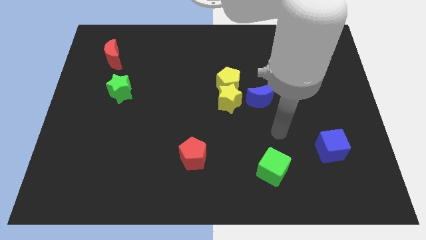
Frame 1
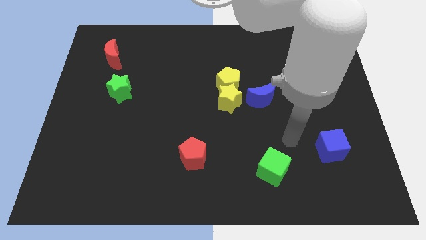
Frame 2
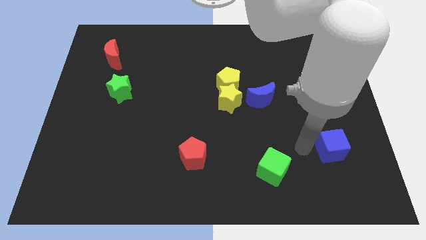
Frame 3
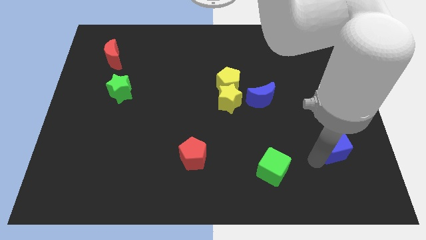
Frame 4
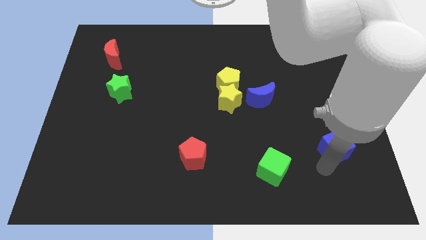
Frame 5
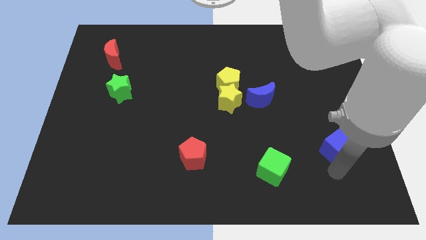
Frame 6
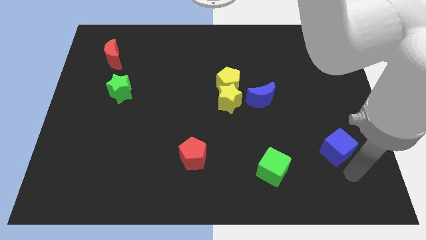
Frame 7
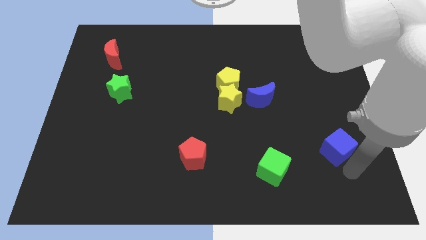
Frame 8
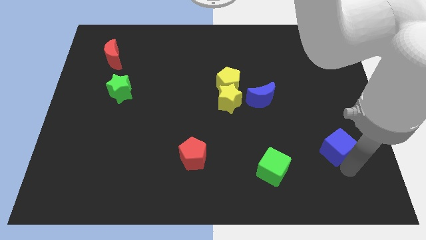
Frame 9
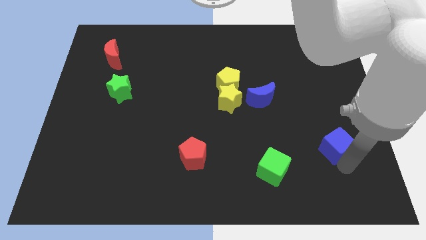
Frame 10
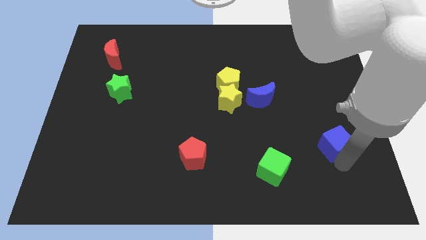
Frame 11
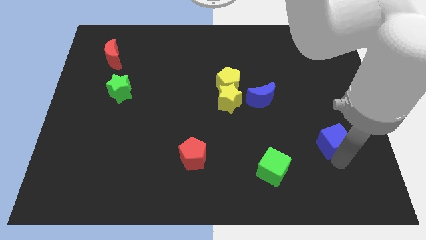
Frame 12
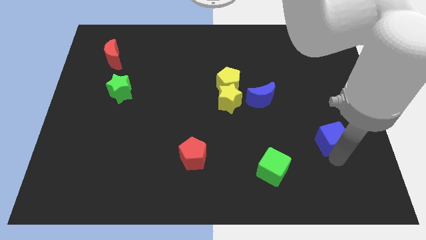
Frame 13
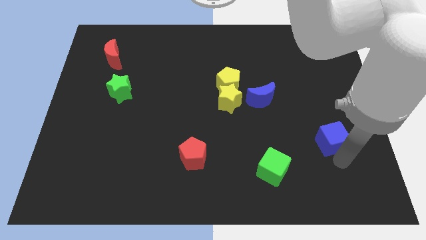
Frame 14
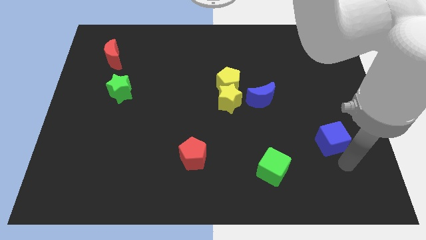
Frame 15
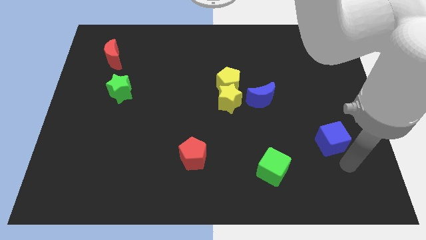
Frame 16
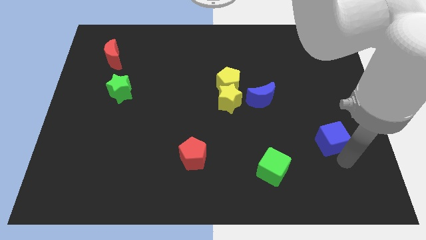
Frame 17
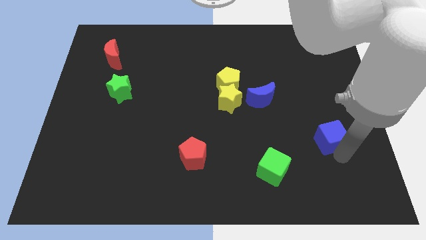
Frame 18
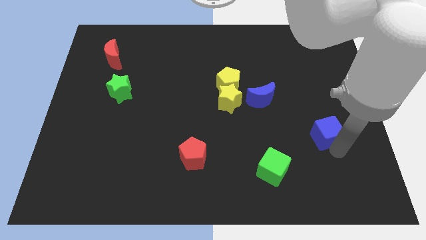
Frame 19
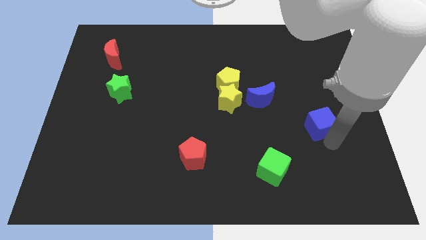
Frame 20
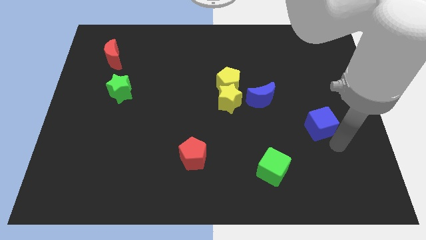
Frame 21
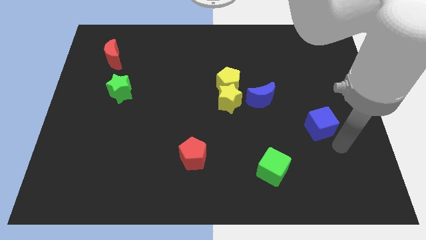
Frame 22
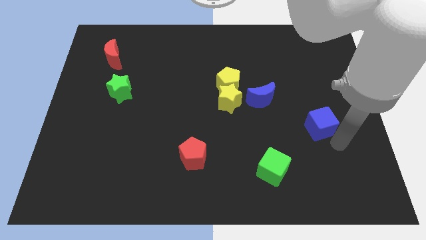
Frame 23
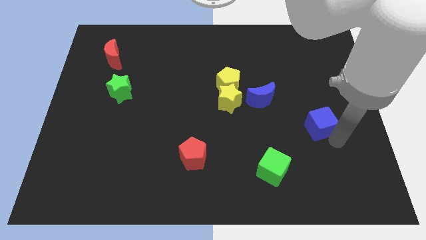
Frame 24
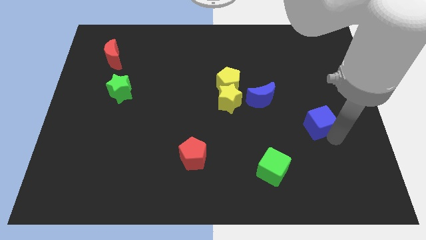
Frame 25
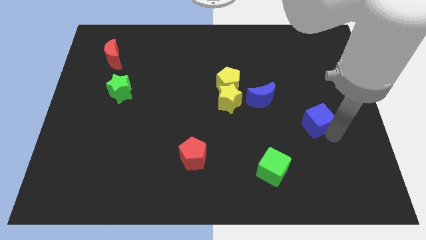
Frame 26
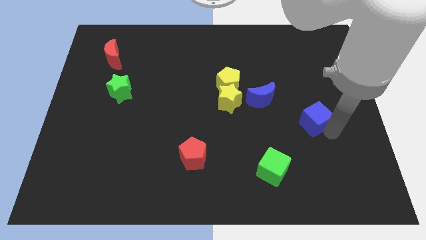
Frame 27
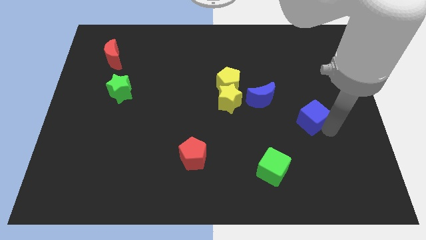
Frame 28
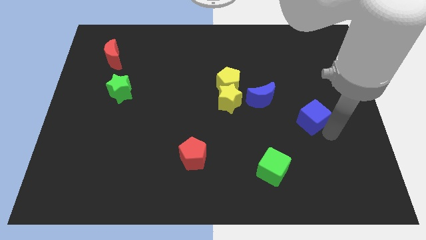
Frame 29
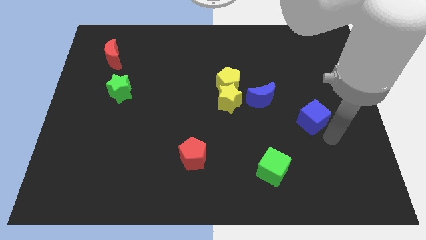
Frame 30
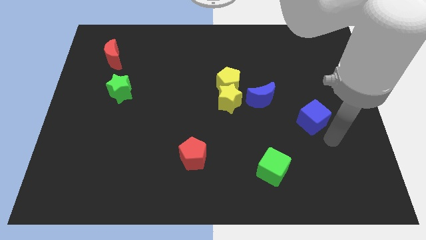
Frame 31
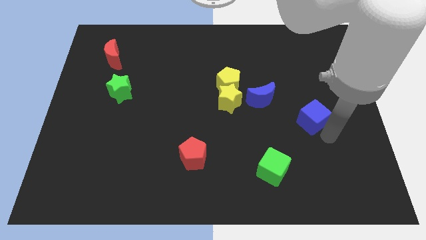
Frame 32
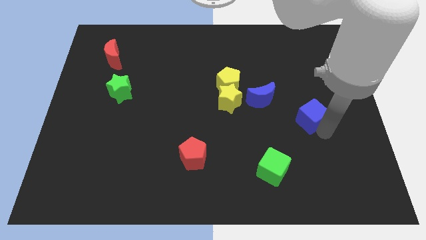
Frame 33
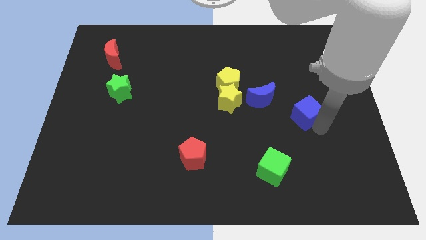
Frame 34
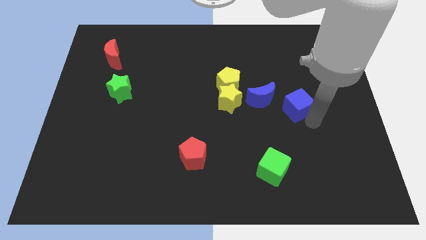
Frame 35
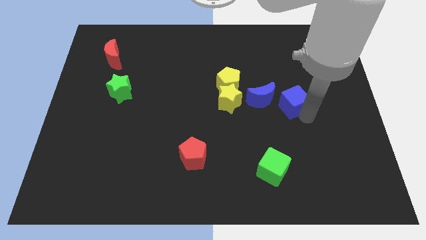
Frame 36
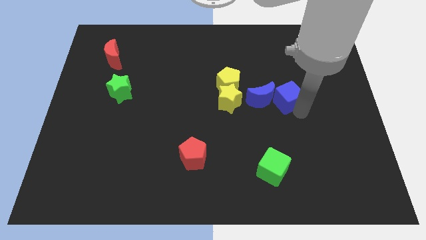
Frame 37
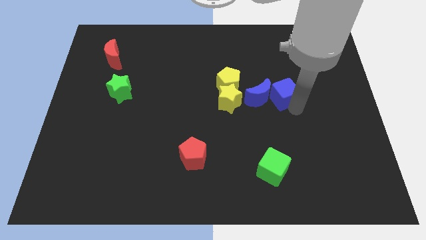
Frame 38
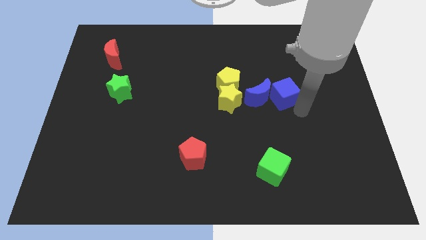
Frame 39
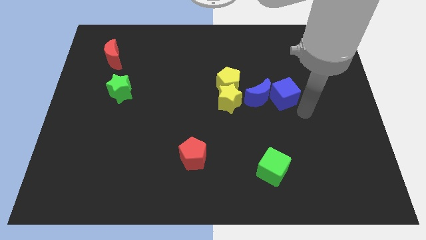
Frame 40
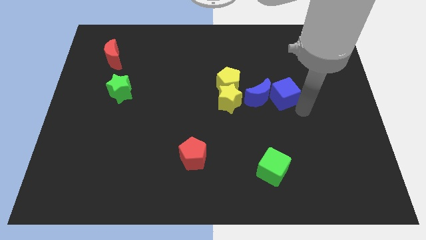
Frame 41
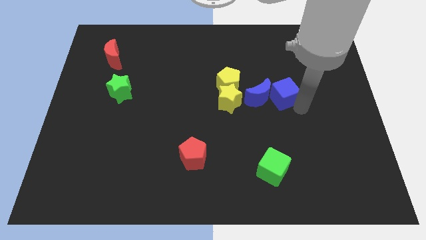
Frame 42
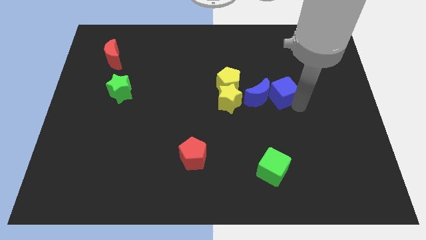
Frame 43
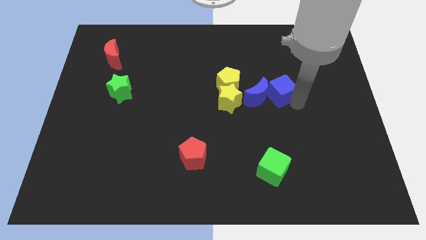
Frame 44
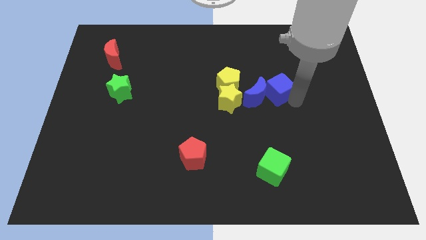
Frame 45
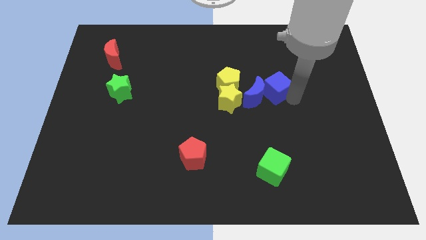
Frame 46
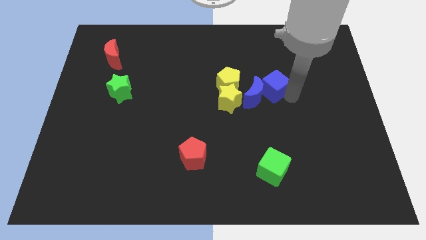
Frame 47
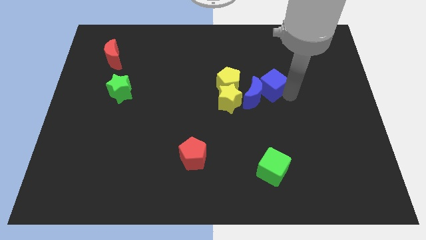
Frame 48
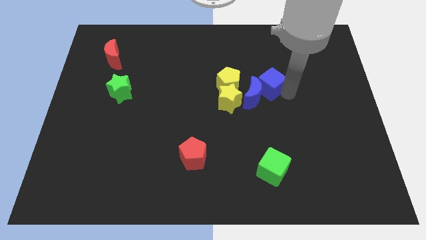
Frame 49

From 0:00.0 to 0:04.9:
move the blue cube upwards and then to the left

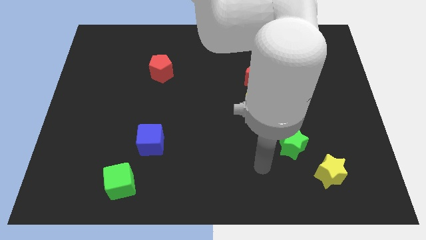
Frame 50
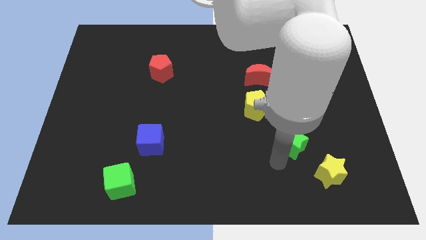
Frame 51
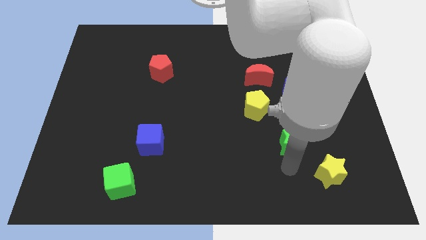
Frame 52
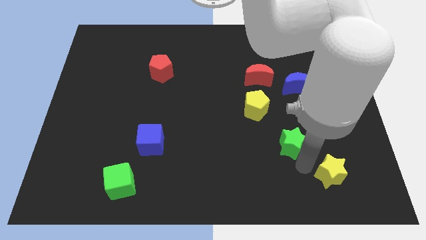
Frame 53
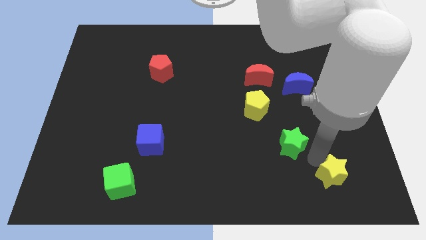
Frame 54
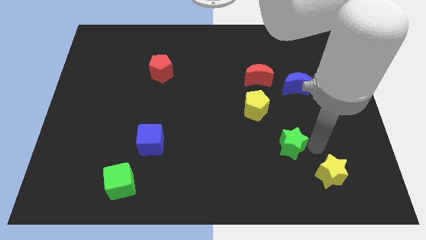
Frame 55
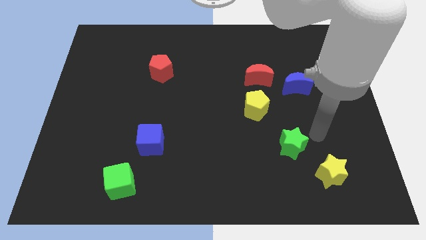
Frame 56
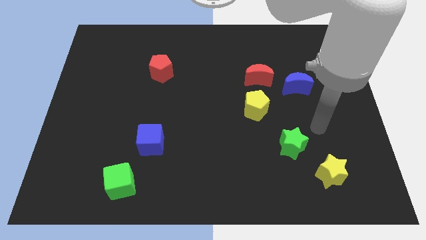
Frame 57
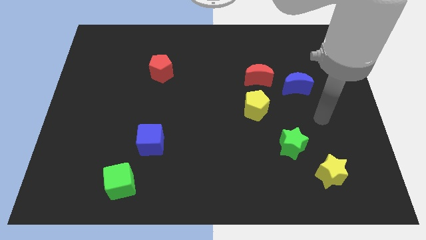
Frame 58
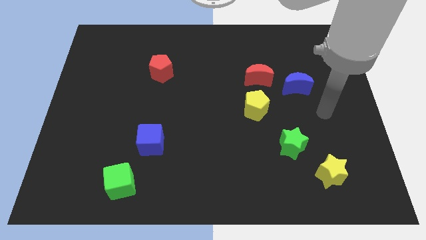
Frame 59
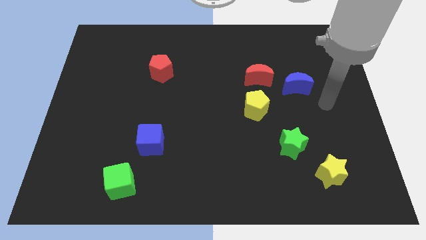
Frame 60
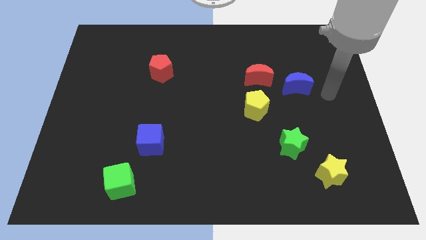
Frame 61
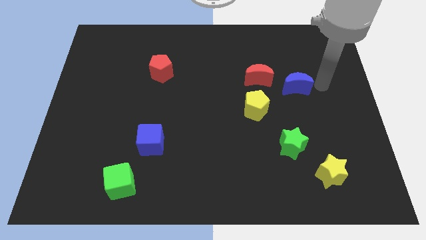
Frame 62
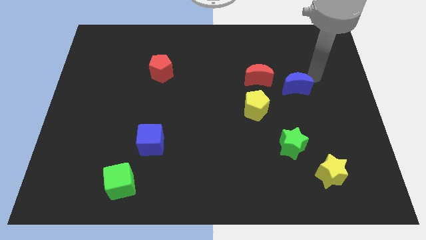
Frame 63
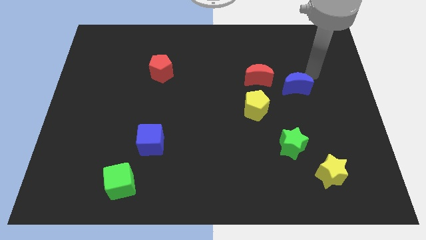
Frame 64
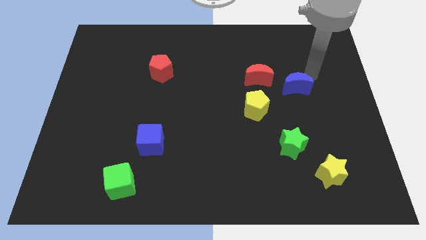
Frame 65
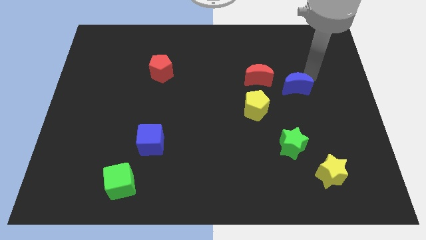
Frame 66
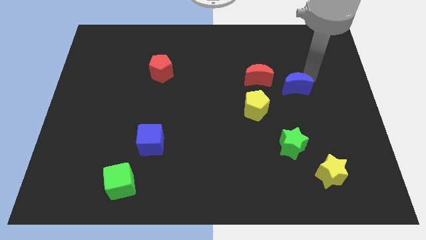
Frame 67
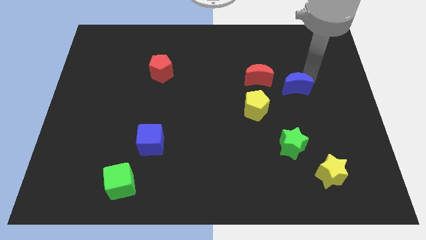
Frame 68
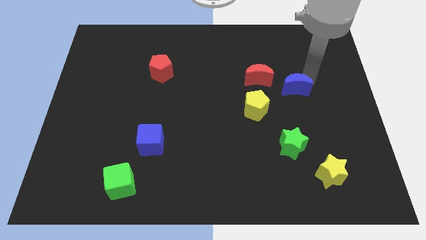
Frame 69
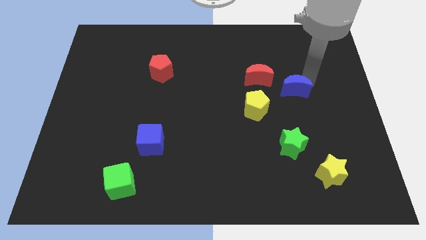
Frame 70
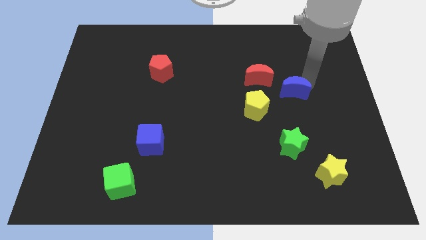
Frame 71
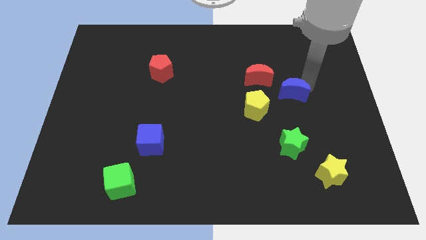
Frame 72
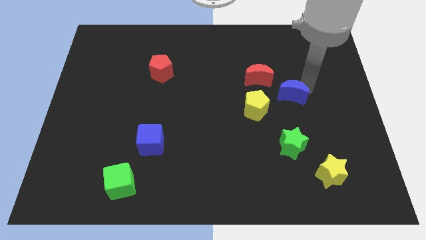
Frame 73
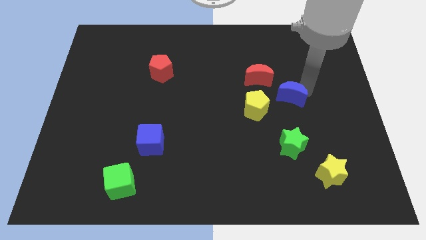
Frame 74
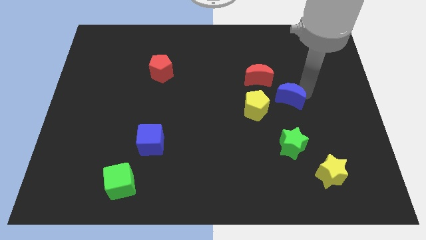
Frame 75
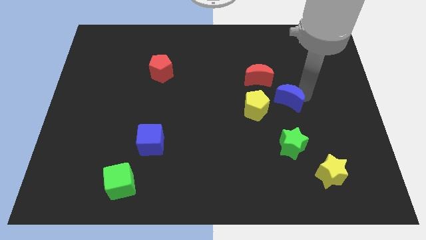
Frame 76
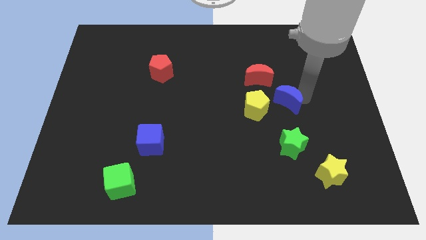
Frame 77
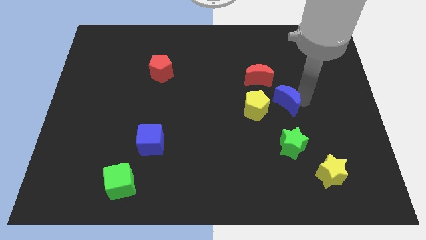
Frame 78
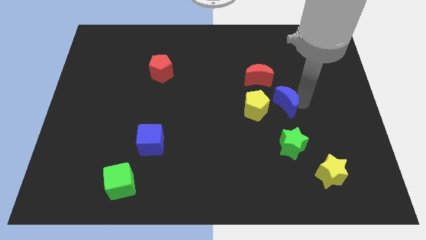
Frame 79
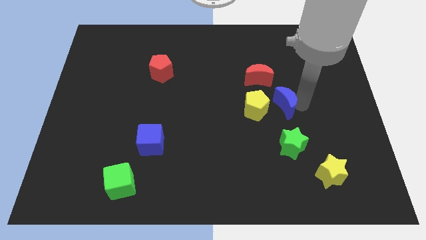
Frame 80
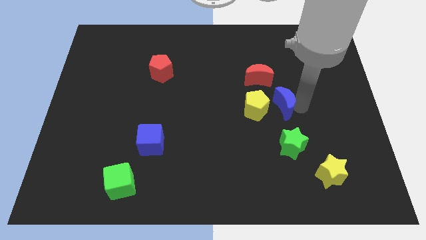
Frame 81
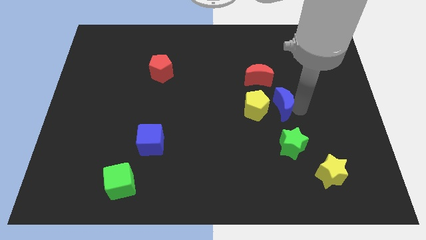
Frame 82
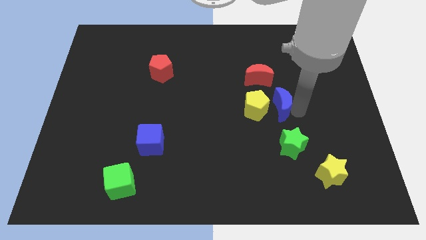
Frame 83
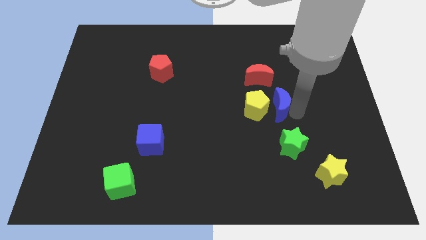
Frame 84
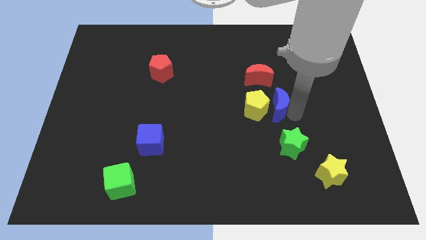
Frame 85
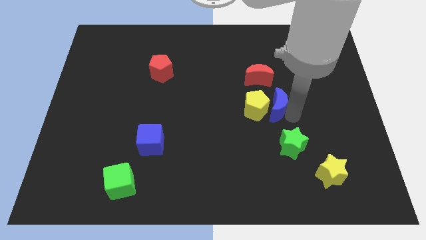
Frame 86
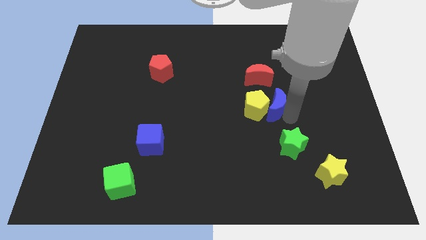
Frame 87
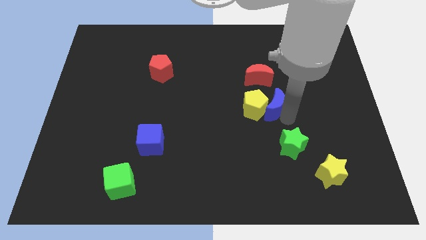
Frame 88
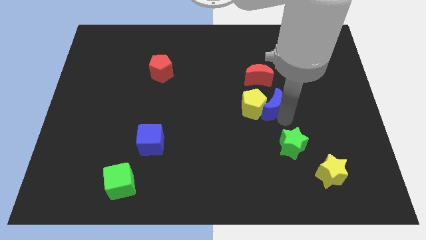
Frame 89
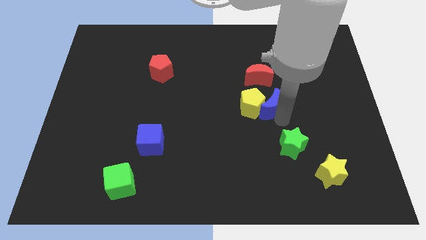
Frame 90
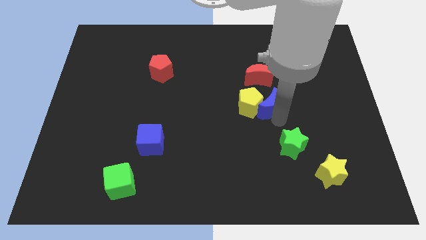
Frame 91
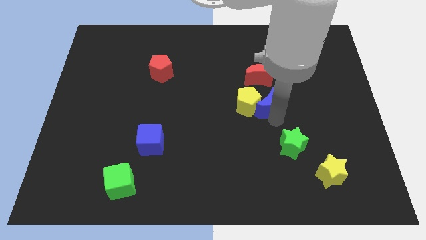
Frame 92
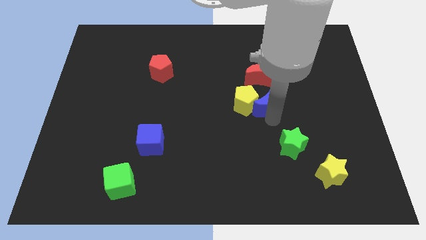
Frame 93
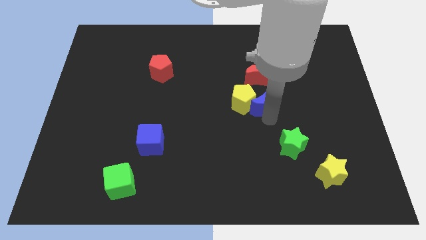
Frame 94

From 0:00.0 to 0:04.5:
push the blue moon left somewhat
